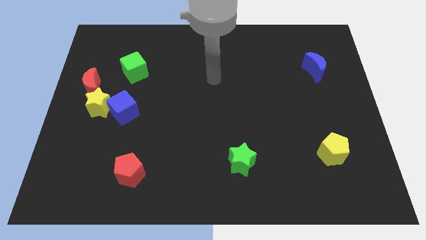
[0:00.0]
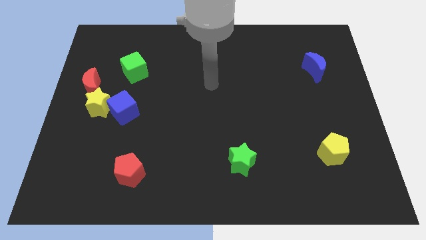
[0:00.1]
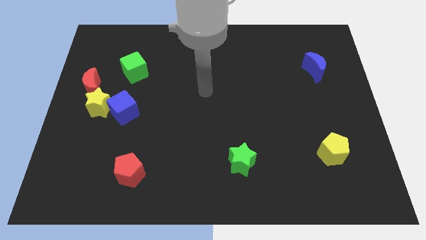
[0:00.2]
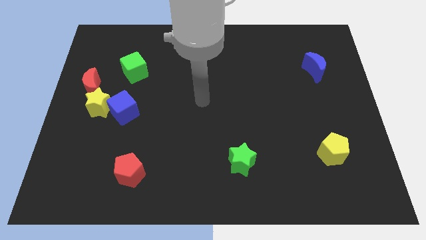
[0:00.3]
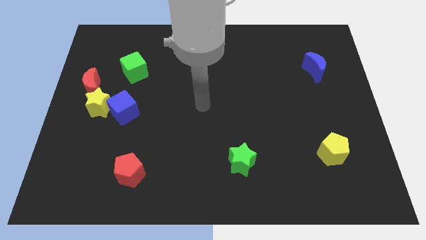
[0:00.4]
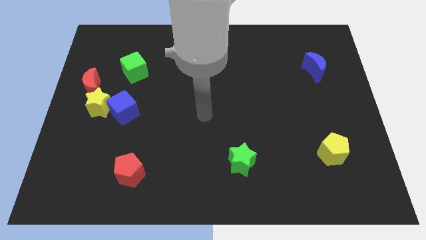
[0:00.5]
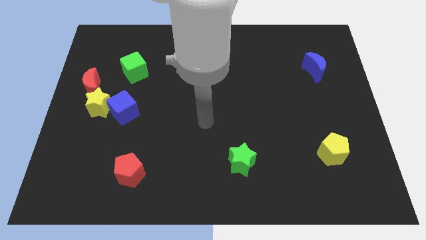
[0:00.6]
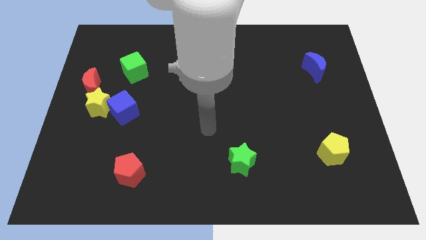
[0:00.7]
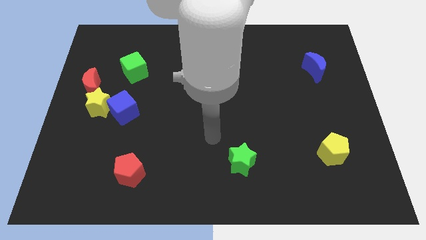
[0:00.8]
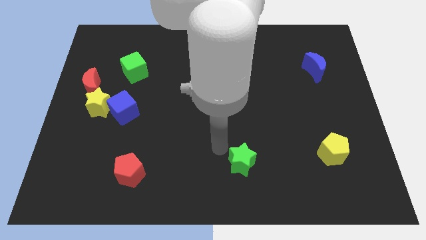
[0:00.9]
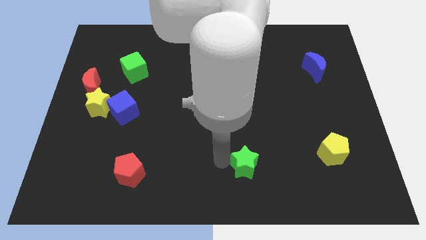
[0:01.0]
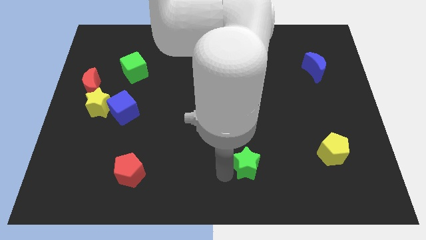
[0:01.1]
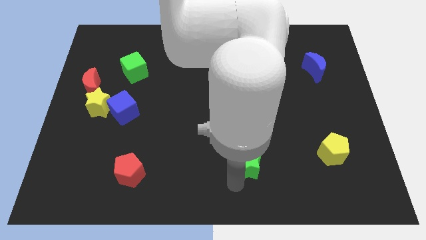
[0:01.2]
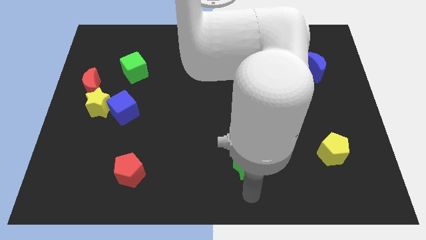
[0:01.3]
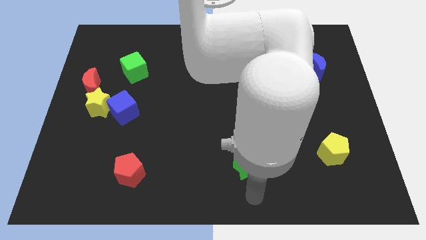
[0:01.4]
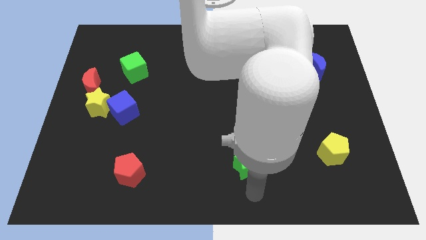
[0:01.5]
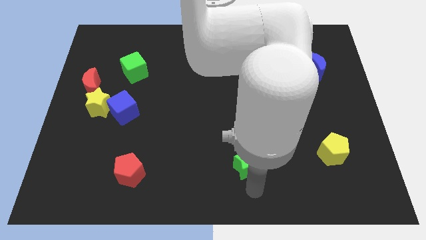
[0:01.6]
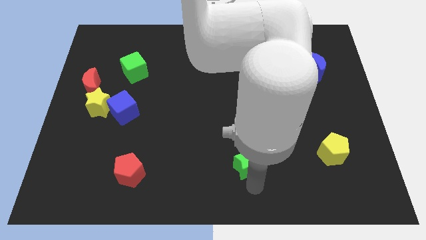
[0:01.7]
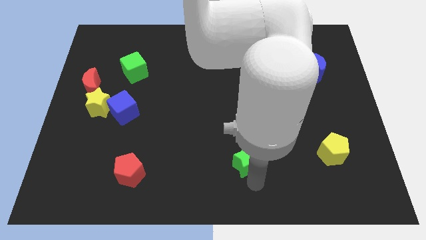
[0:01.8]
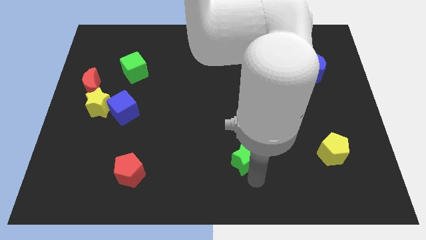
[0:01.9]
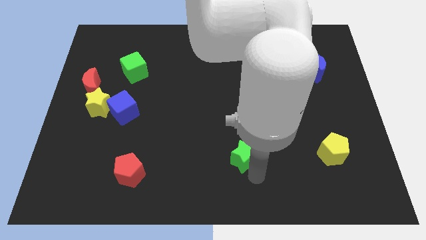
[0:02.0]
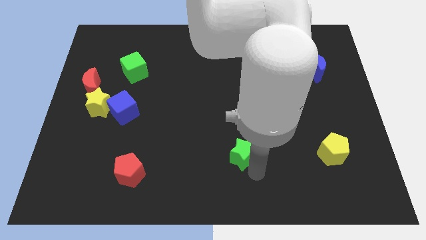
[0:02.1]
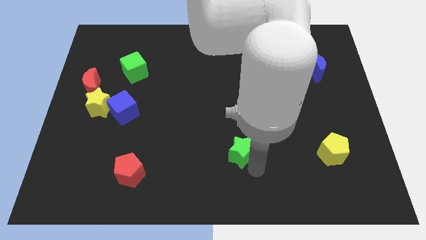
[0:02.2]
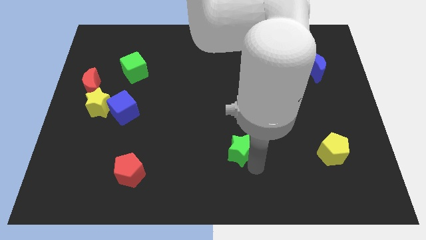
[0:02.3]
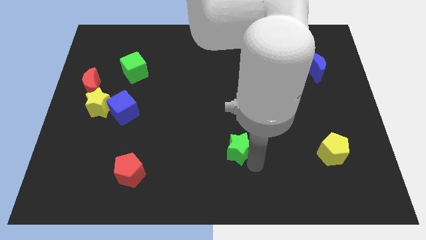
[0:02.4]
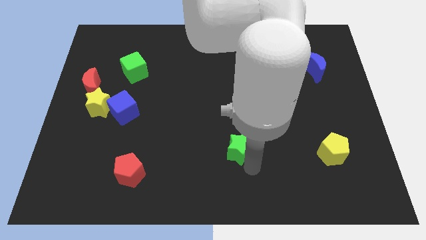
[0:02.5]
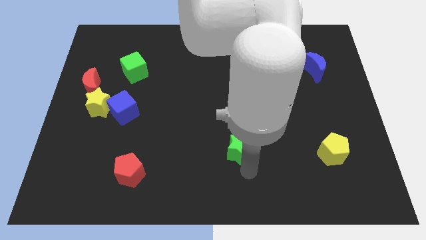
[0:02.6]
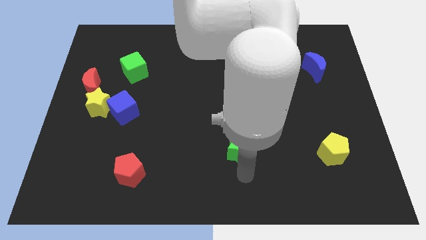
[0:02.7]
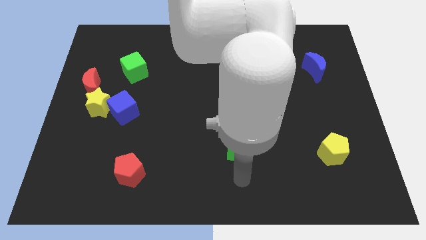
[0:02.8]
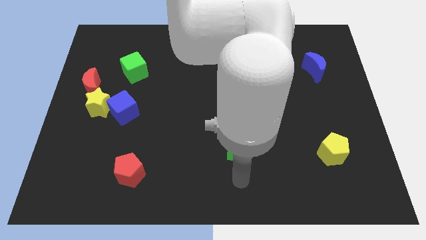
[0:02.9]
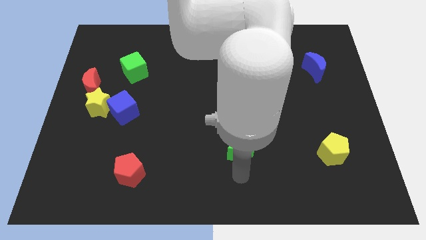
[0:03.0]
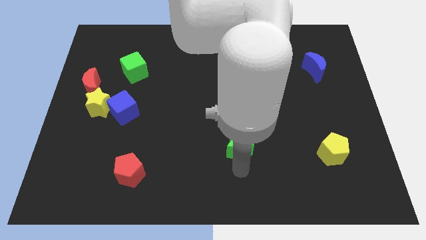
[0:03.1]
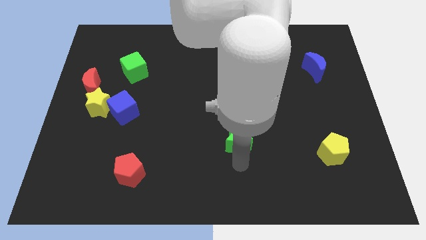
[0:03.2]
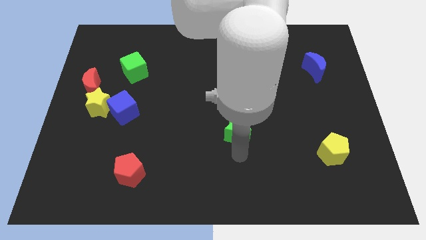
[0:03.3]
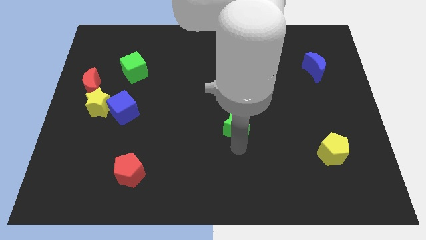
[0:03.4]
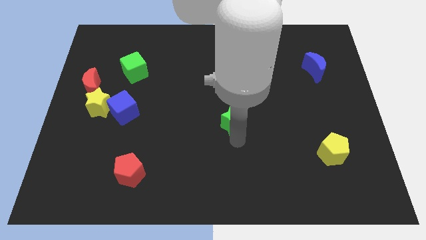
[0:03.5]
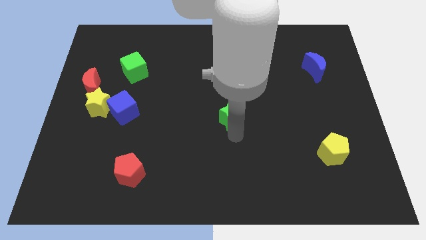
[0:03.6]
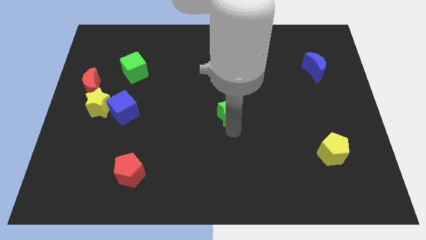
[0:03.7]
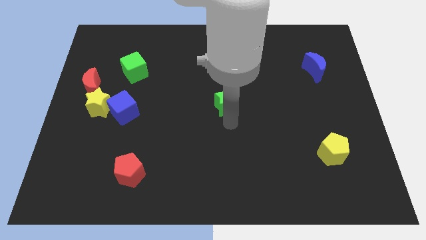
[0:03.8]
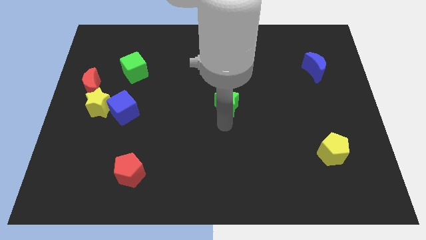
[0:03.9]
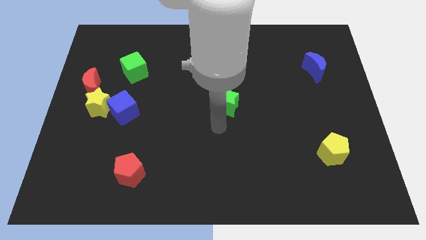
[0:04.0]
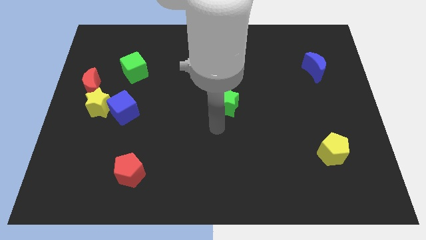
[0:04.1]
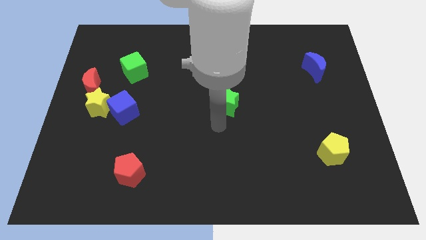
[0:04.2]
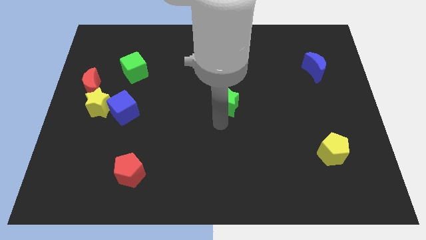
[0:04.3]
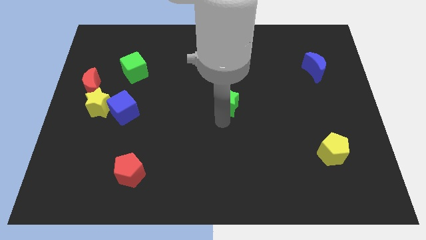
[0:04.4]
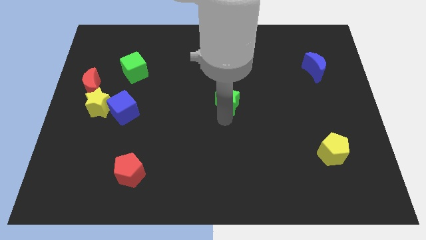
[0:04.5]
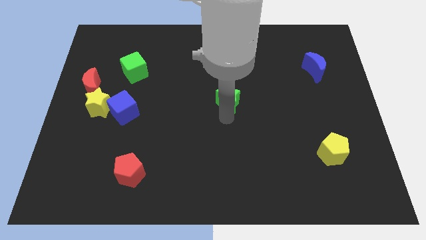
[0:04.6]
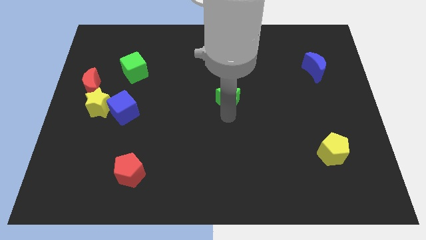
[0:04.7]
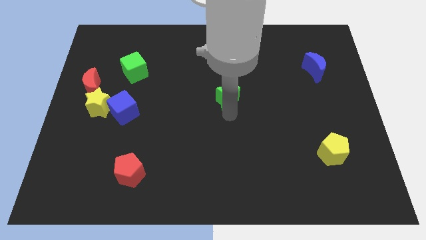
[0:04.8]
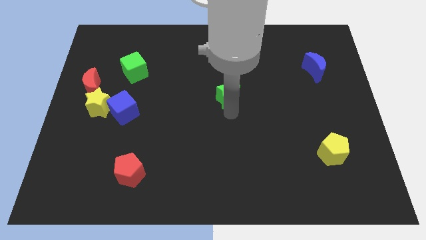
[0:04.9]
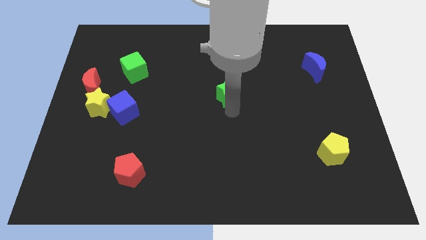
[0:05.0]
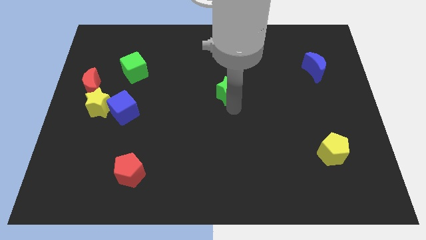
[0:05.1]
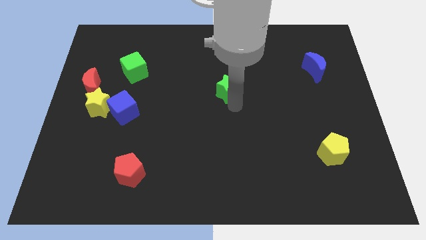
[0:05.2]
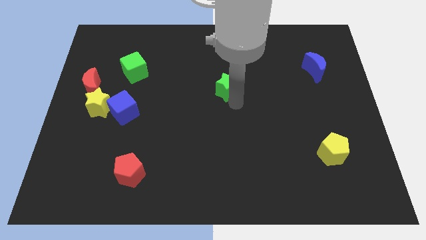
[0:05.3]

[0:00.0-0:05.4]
move the green star upwards

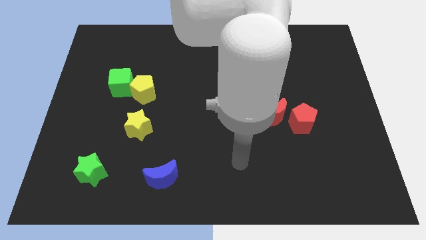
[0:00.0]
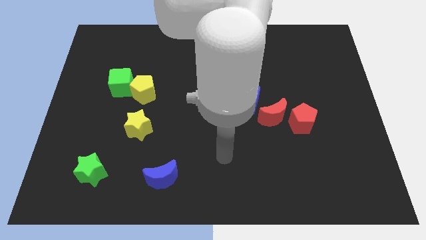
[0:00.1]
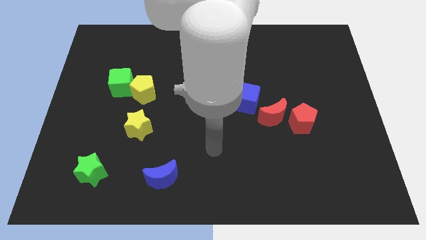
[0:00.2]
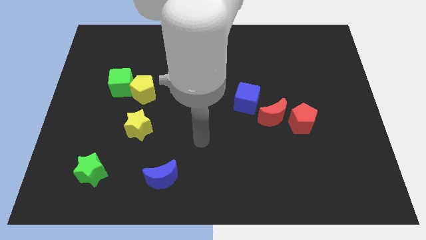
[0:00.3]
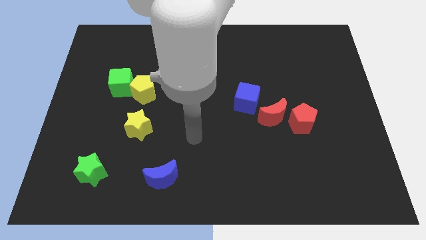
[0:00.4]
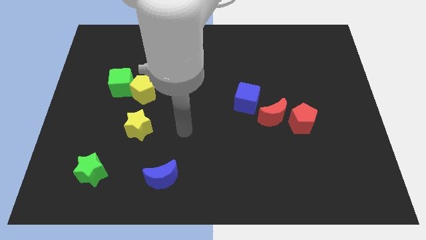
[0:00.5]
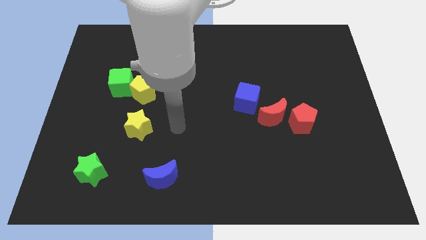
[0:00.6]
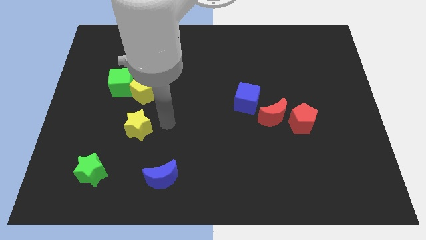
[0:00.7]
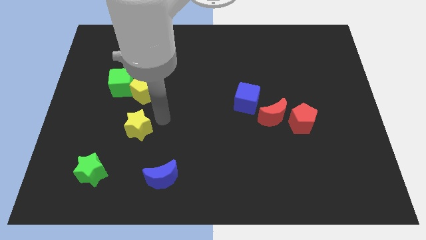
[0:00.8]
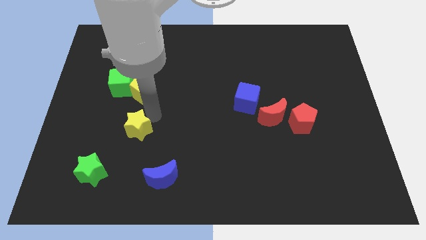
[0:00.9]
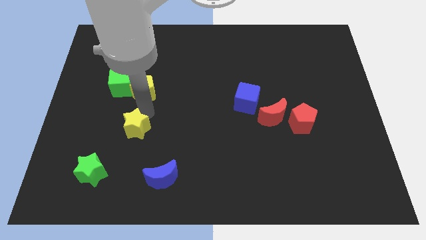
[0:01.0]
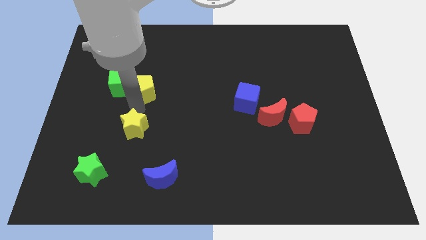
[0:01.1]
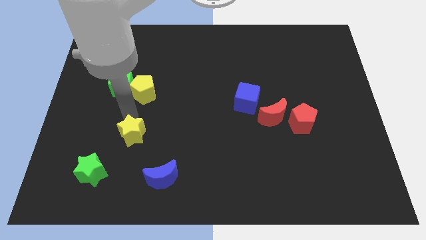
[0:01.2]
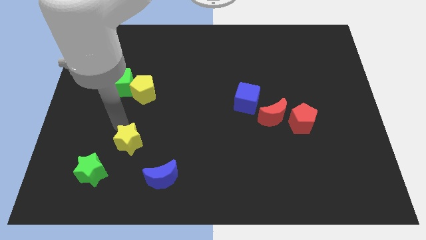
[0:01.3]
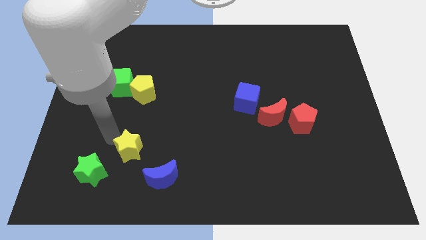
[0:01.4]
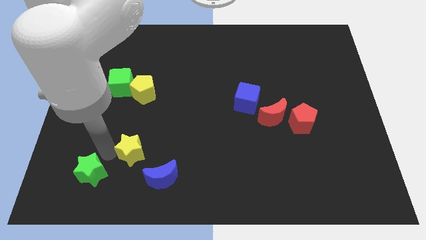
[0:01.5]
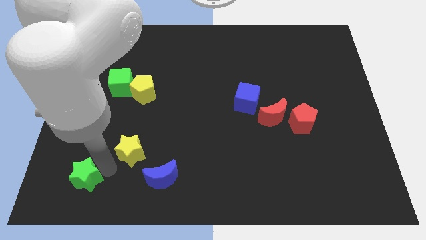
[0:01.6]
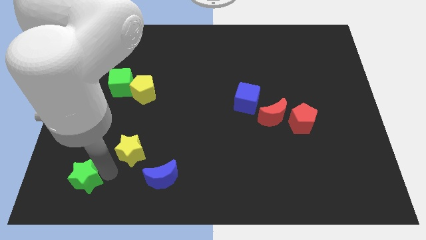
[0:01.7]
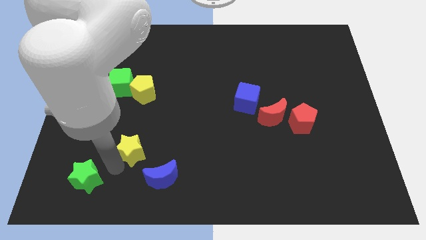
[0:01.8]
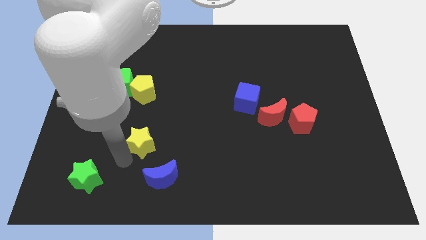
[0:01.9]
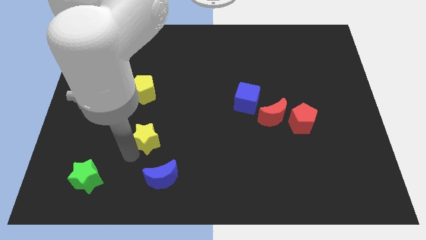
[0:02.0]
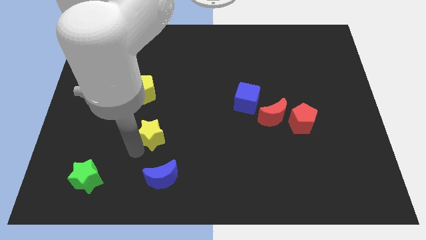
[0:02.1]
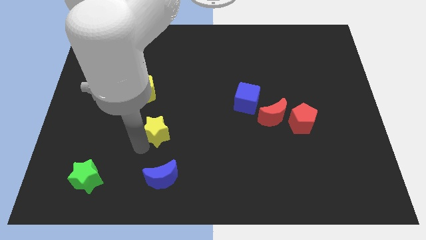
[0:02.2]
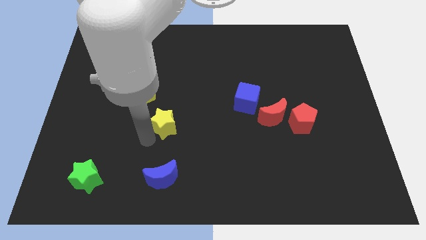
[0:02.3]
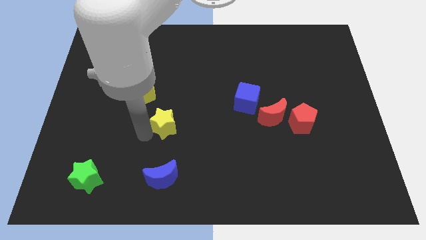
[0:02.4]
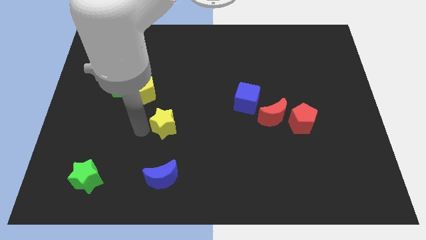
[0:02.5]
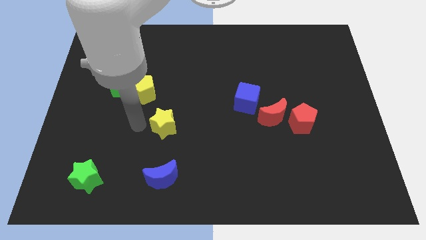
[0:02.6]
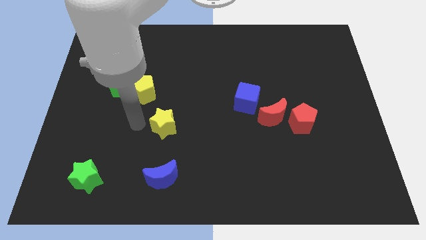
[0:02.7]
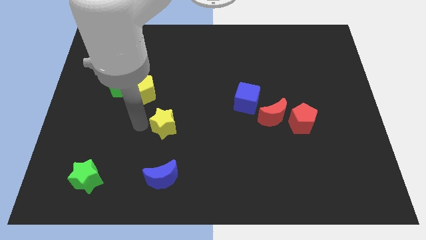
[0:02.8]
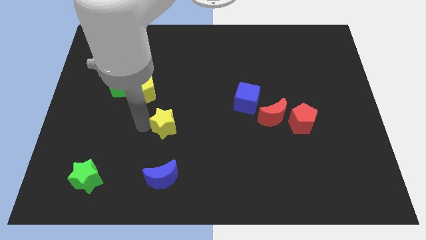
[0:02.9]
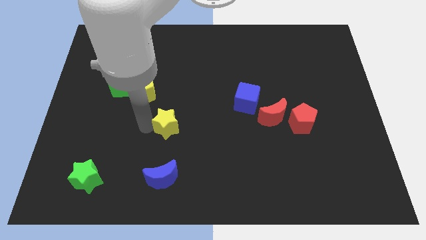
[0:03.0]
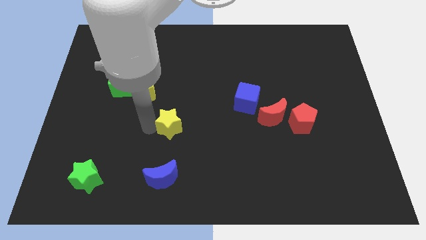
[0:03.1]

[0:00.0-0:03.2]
move the yellow star somewhat to the right
